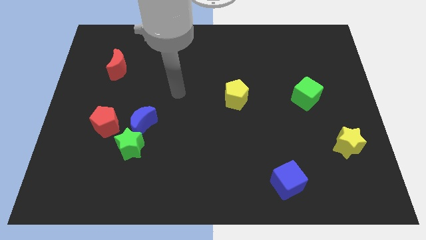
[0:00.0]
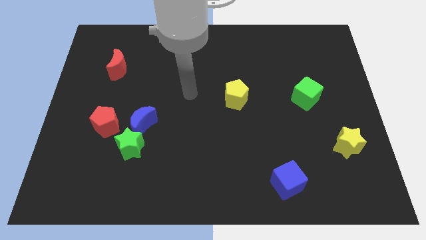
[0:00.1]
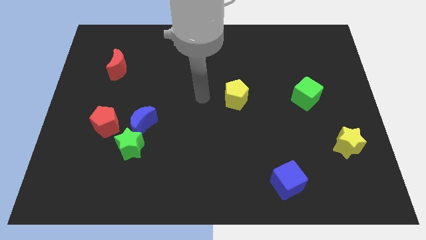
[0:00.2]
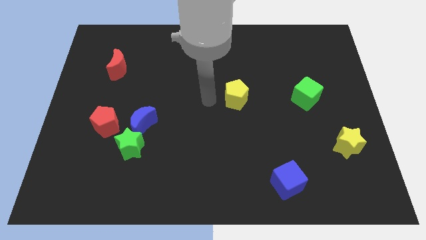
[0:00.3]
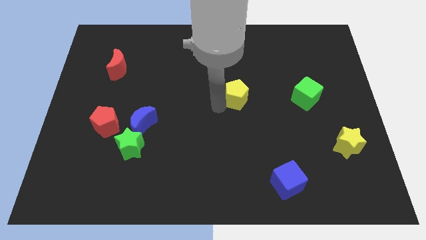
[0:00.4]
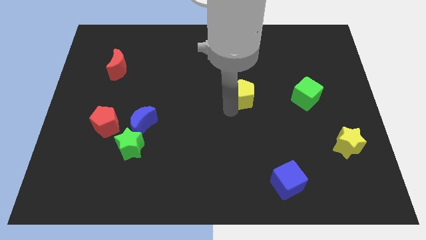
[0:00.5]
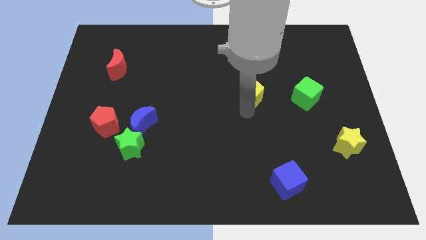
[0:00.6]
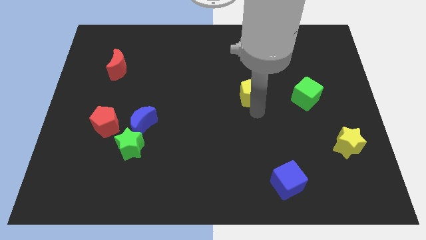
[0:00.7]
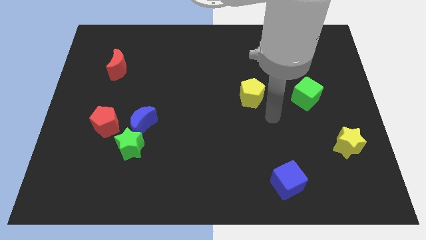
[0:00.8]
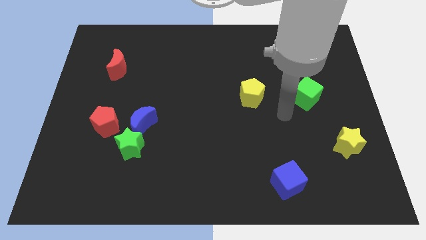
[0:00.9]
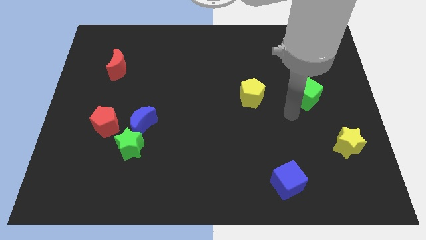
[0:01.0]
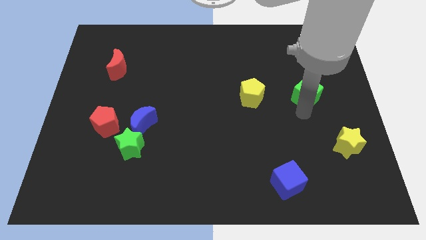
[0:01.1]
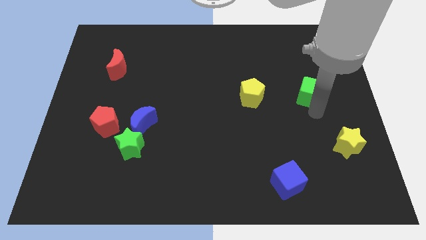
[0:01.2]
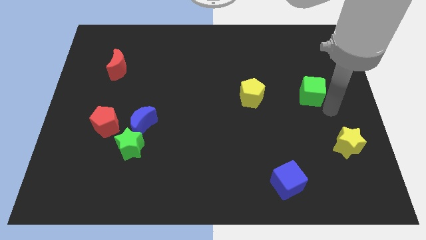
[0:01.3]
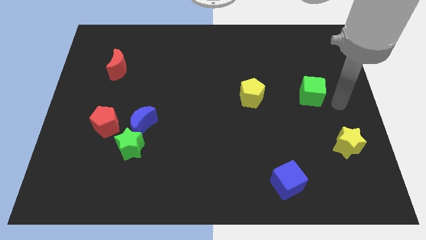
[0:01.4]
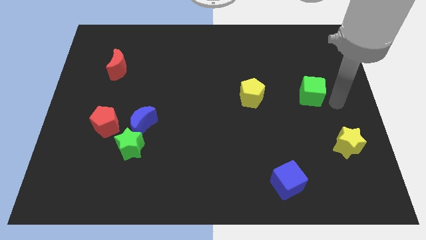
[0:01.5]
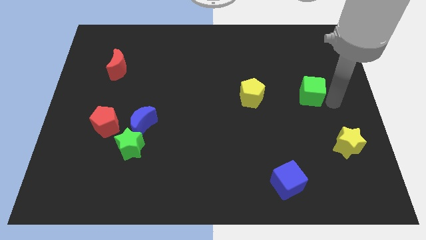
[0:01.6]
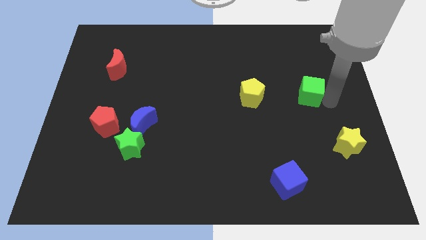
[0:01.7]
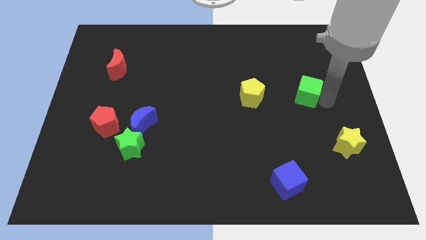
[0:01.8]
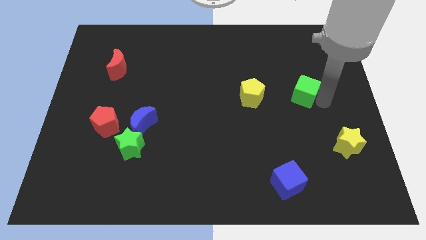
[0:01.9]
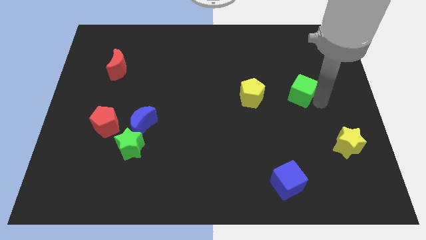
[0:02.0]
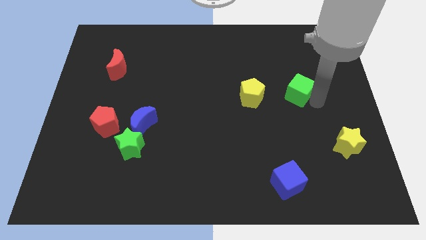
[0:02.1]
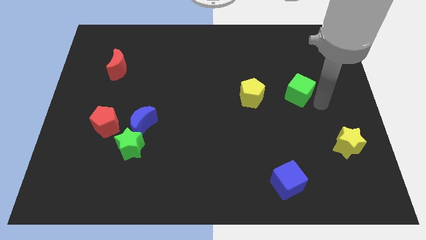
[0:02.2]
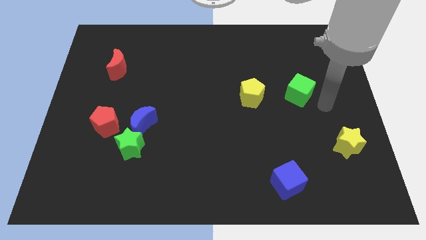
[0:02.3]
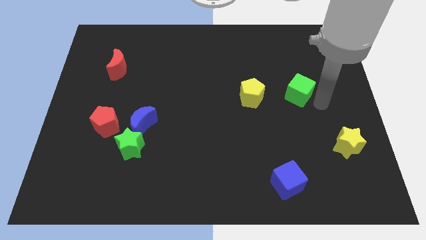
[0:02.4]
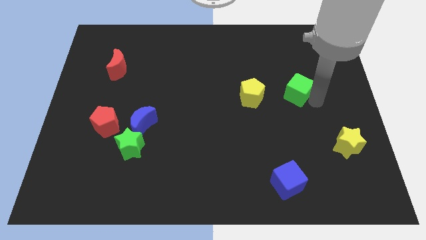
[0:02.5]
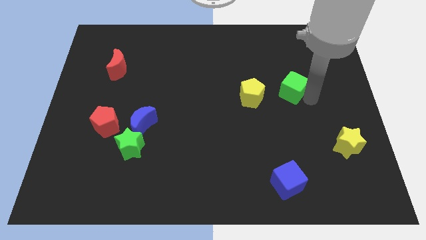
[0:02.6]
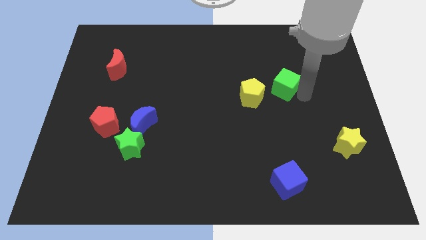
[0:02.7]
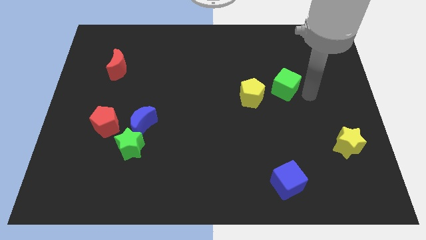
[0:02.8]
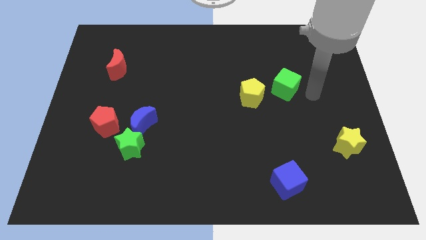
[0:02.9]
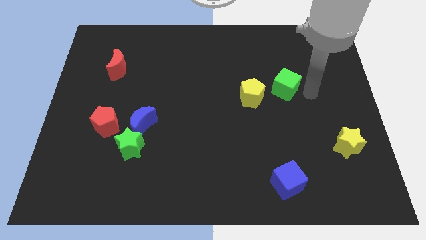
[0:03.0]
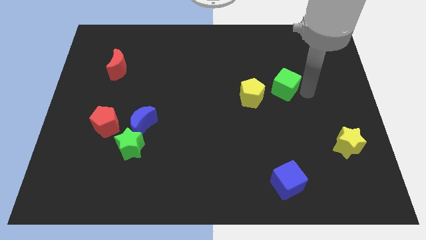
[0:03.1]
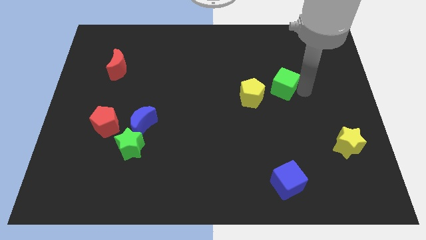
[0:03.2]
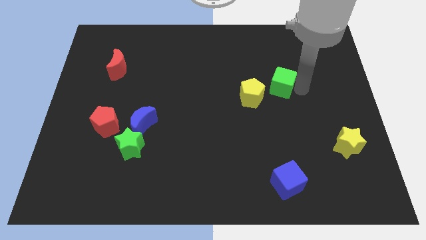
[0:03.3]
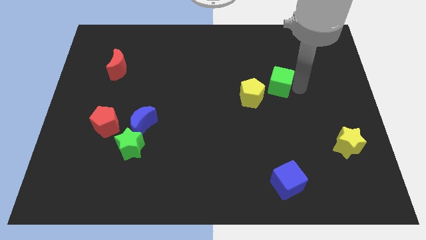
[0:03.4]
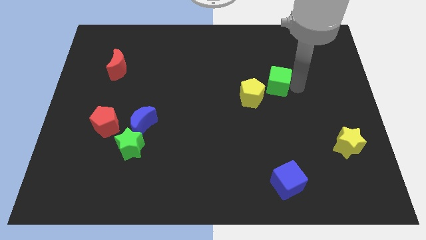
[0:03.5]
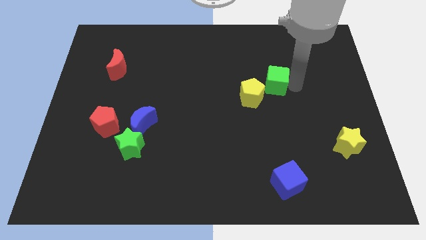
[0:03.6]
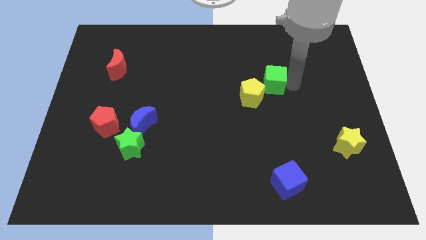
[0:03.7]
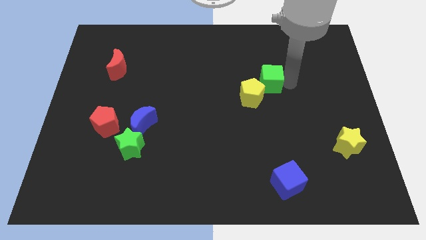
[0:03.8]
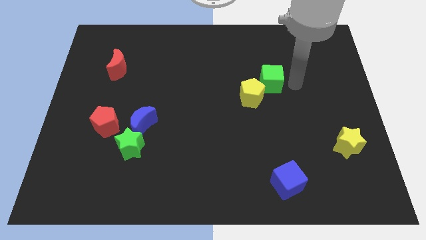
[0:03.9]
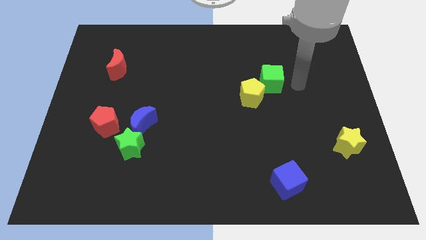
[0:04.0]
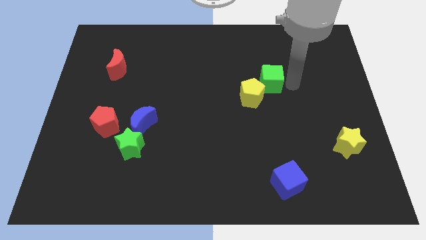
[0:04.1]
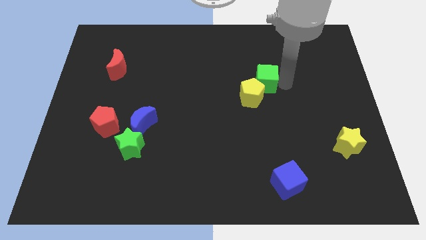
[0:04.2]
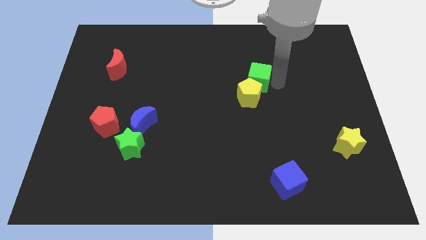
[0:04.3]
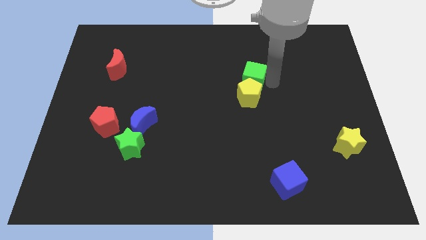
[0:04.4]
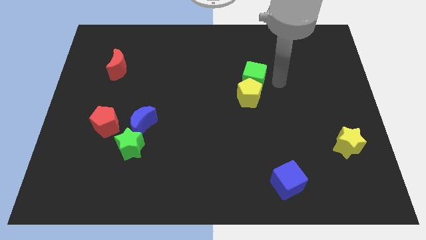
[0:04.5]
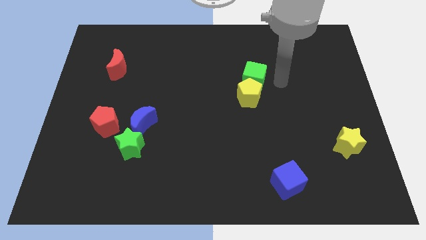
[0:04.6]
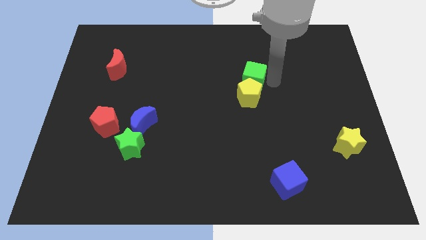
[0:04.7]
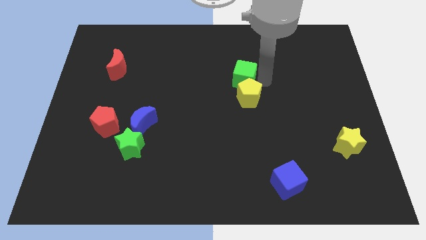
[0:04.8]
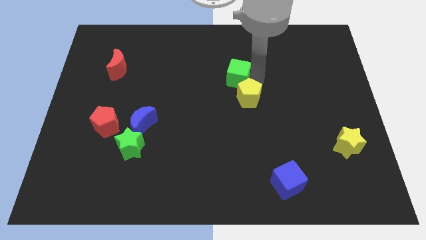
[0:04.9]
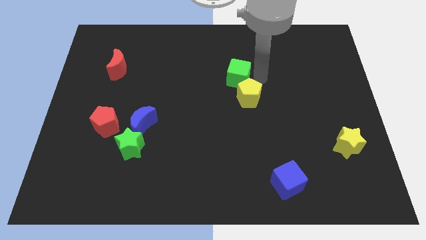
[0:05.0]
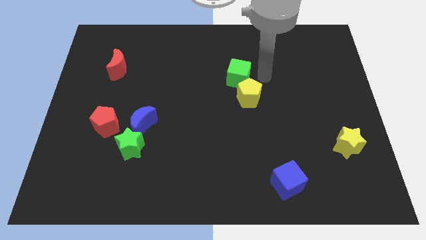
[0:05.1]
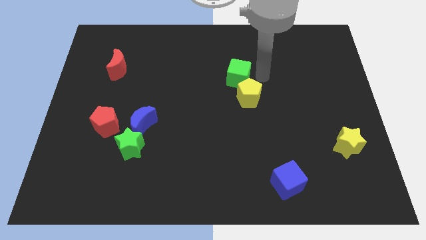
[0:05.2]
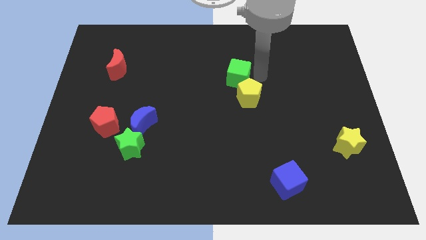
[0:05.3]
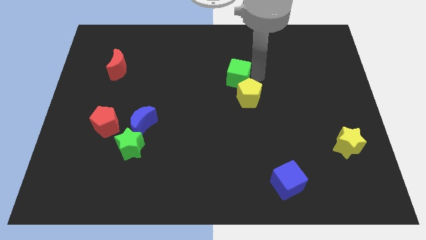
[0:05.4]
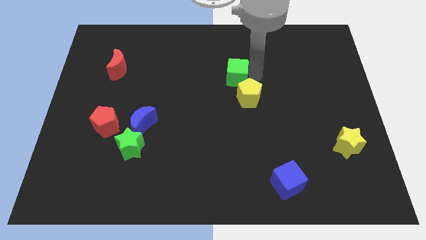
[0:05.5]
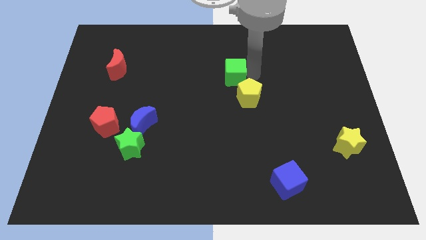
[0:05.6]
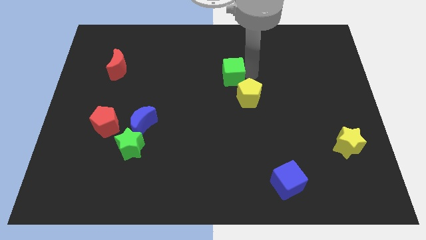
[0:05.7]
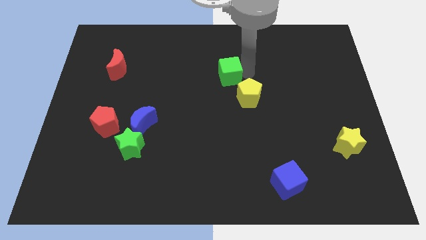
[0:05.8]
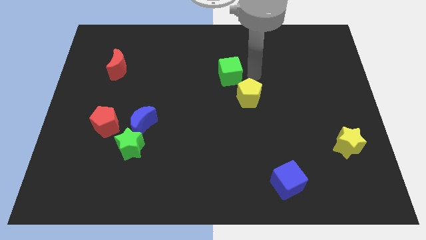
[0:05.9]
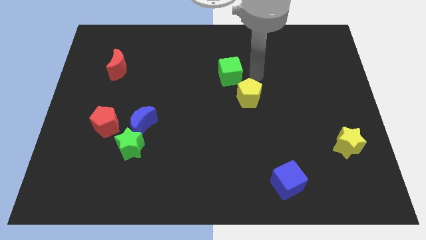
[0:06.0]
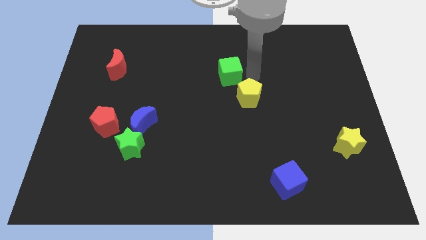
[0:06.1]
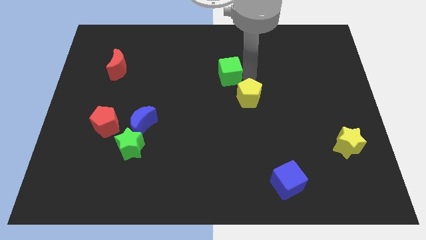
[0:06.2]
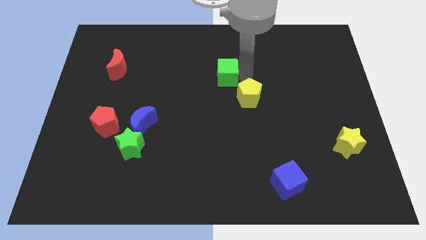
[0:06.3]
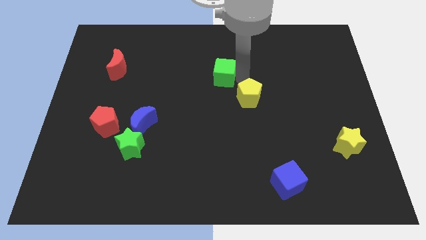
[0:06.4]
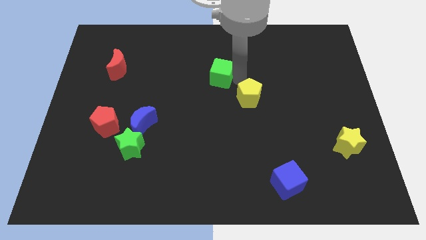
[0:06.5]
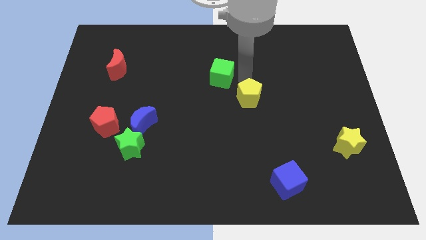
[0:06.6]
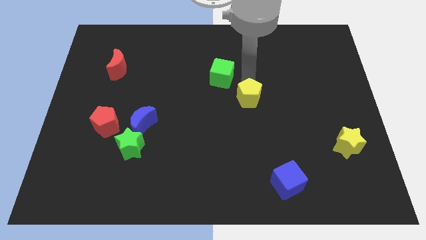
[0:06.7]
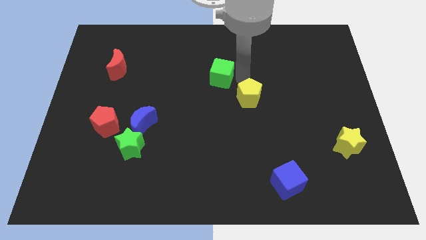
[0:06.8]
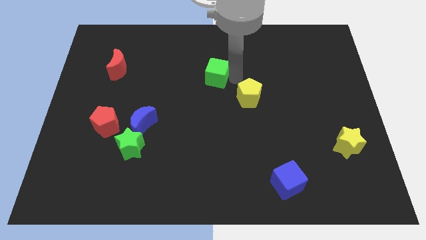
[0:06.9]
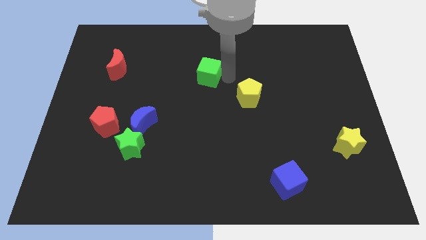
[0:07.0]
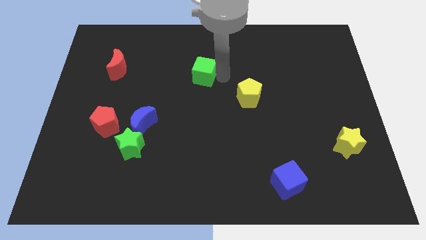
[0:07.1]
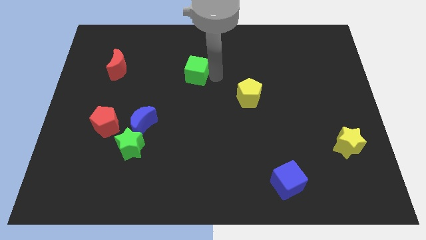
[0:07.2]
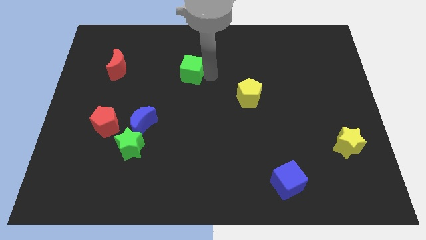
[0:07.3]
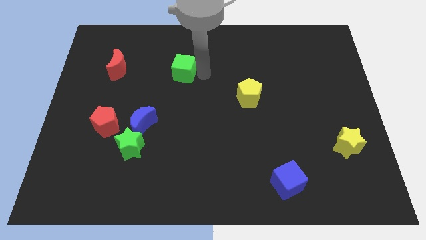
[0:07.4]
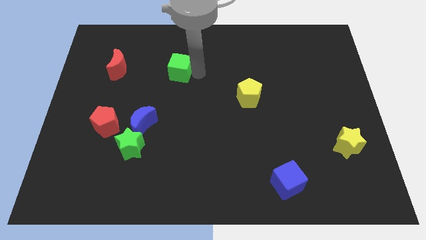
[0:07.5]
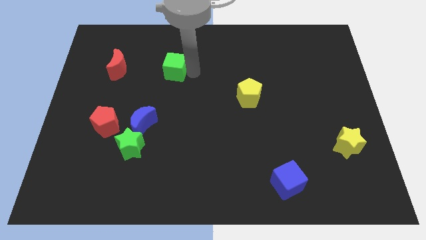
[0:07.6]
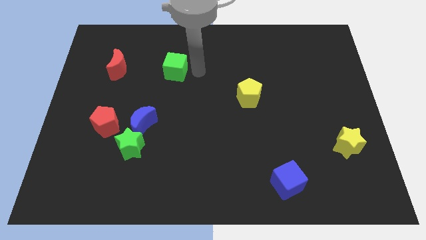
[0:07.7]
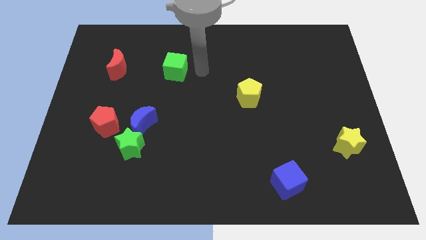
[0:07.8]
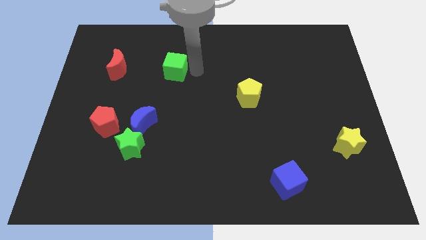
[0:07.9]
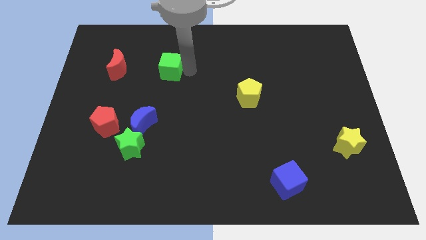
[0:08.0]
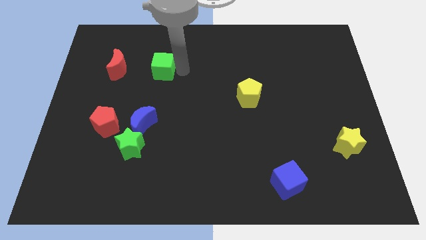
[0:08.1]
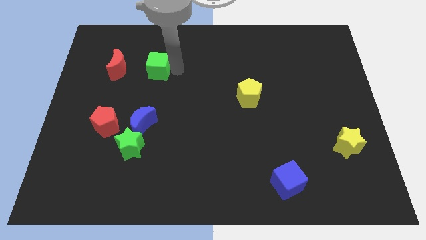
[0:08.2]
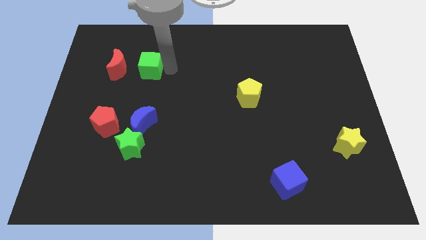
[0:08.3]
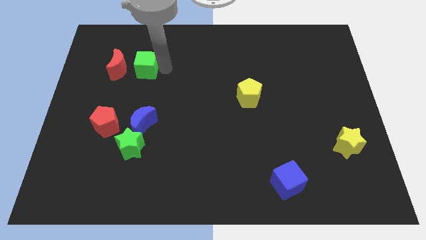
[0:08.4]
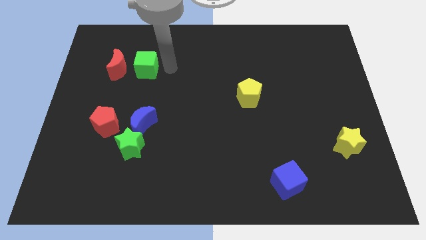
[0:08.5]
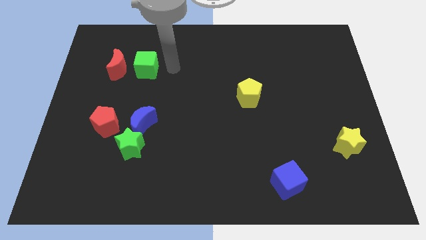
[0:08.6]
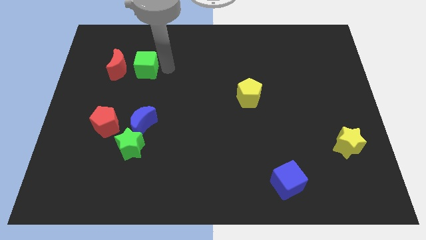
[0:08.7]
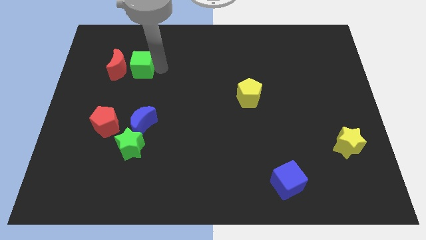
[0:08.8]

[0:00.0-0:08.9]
push the green cube close to the red moon
